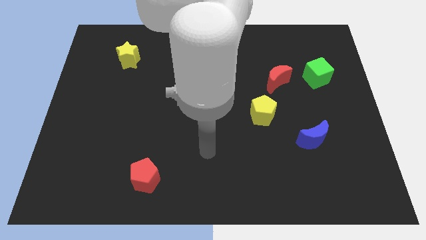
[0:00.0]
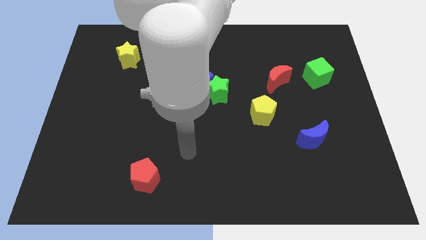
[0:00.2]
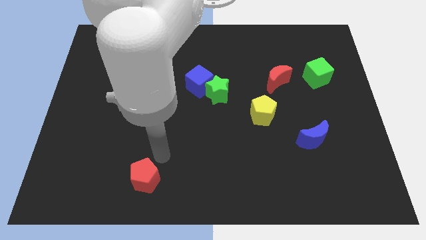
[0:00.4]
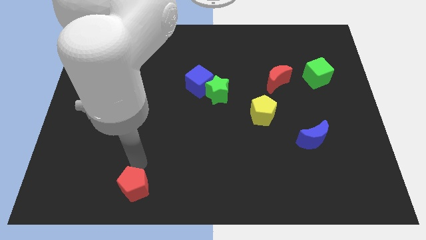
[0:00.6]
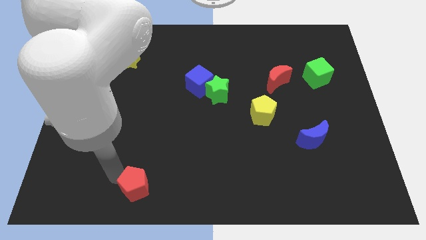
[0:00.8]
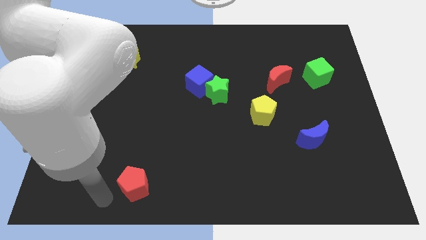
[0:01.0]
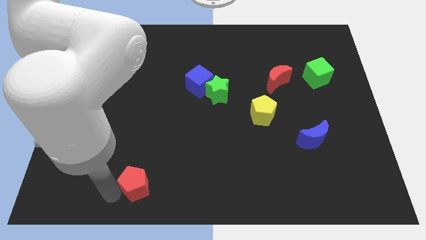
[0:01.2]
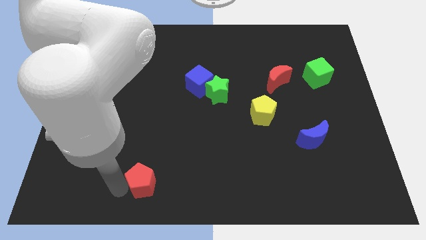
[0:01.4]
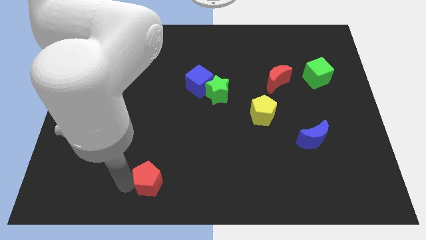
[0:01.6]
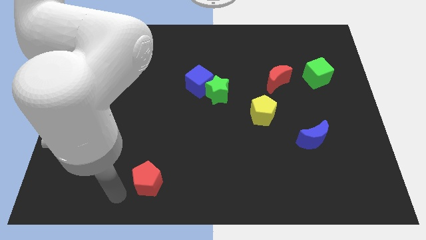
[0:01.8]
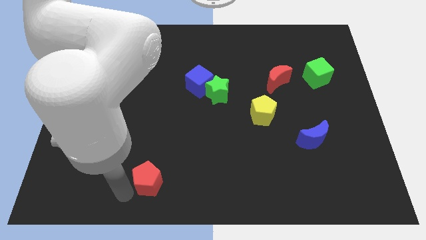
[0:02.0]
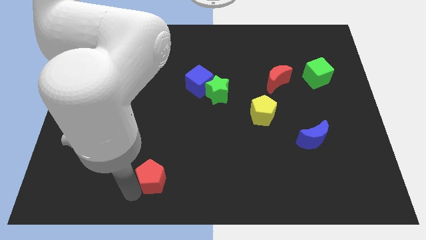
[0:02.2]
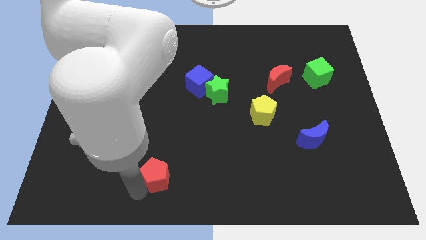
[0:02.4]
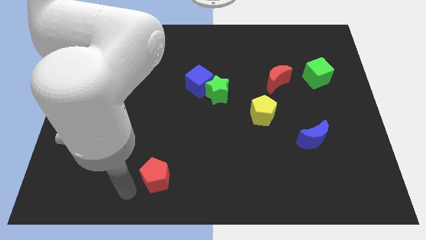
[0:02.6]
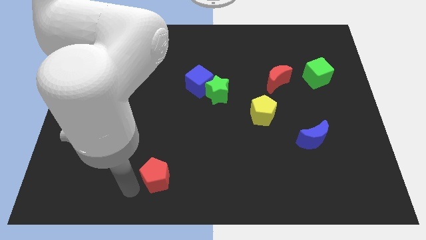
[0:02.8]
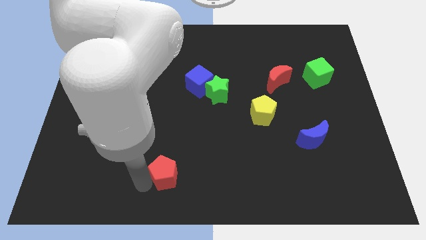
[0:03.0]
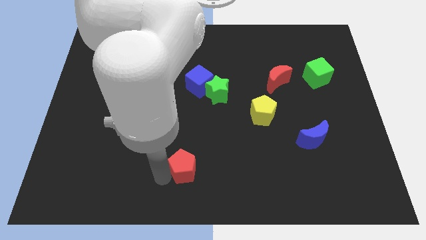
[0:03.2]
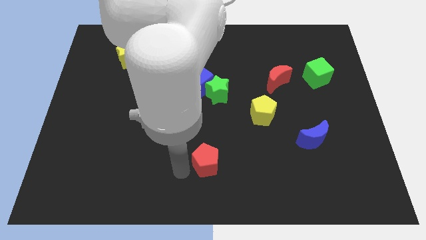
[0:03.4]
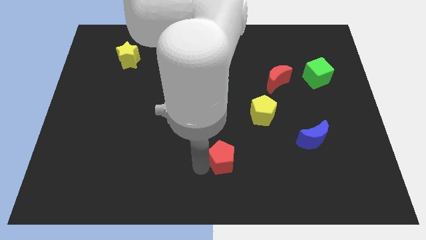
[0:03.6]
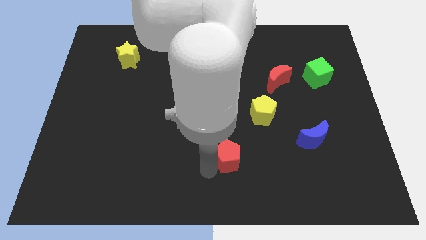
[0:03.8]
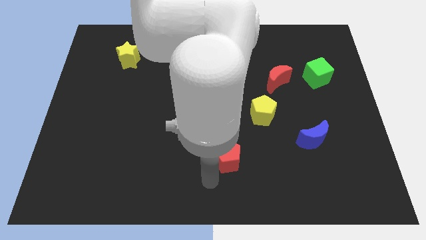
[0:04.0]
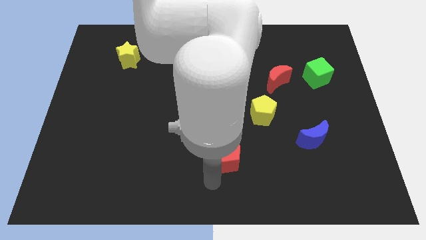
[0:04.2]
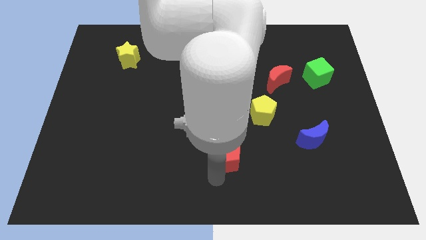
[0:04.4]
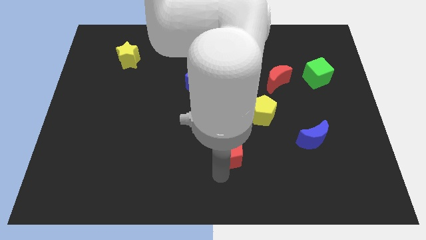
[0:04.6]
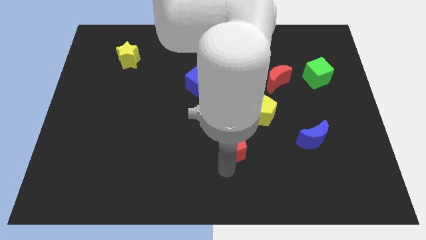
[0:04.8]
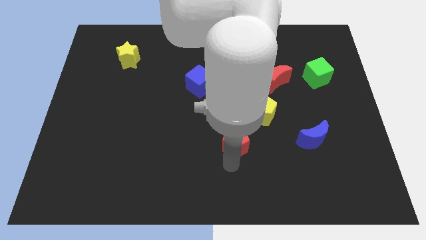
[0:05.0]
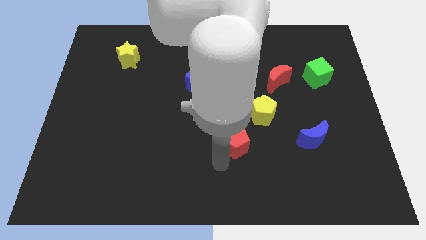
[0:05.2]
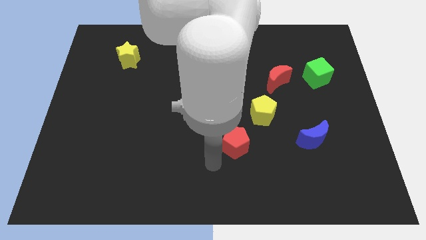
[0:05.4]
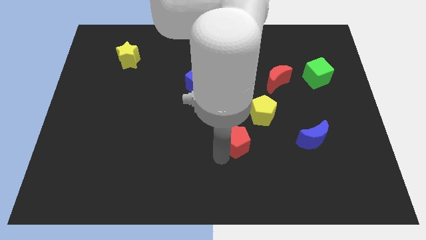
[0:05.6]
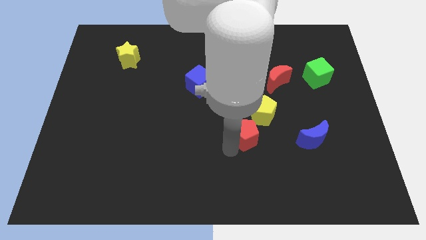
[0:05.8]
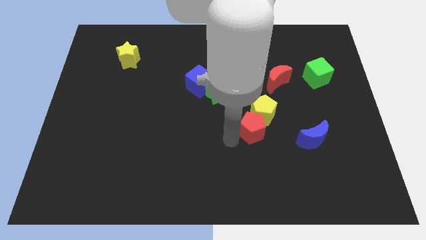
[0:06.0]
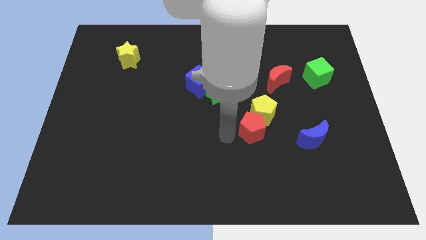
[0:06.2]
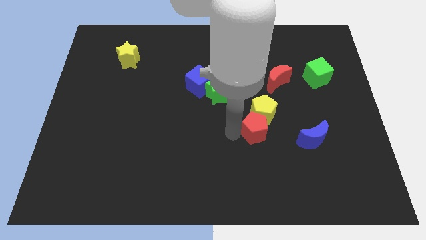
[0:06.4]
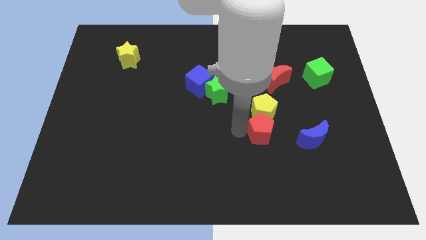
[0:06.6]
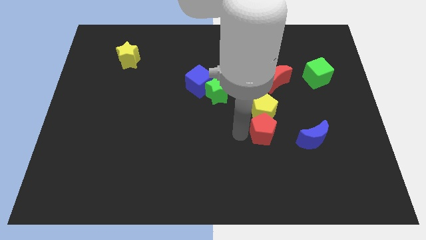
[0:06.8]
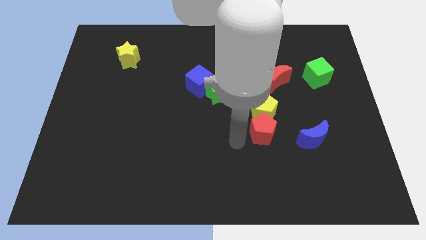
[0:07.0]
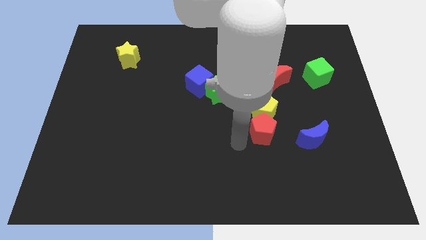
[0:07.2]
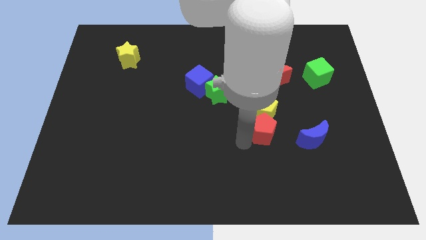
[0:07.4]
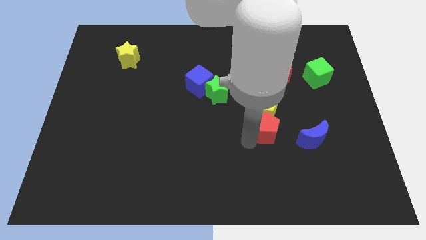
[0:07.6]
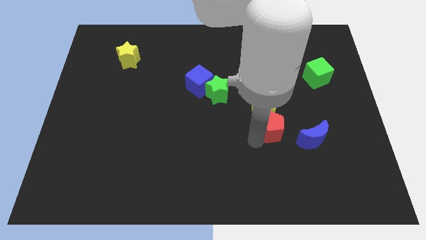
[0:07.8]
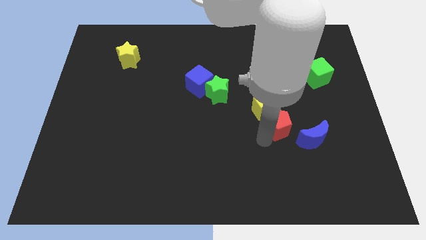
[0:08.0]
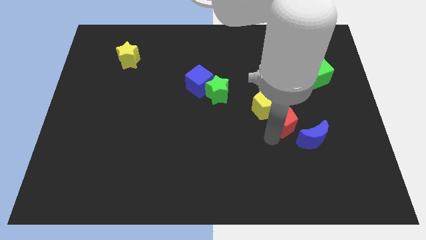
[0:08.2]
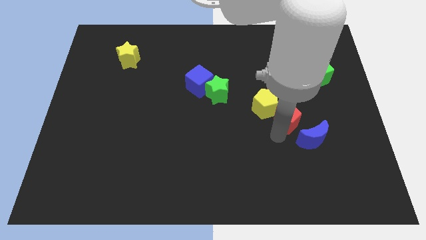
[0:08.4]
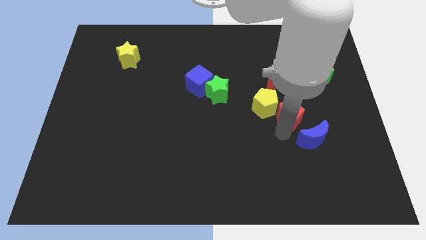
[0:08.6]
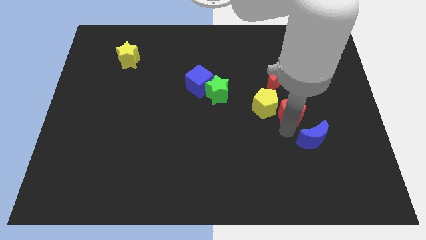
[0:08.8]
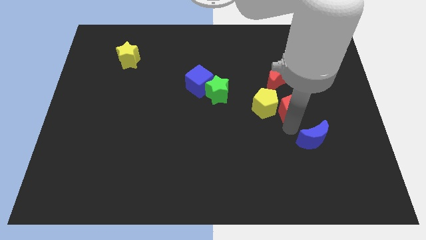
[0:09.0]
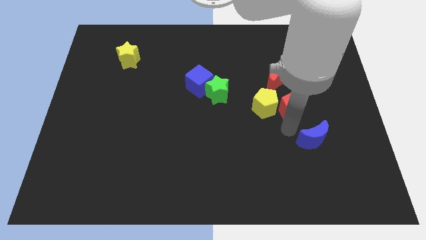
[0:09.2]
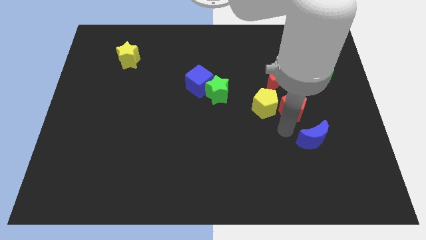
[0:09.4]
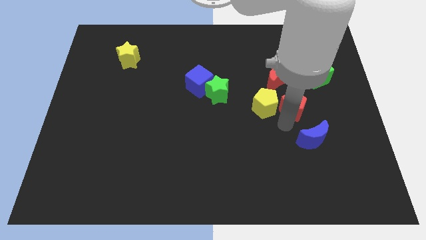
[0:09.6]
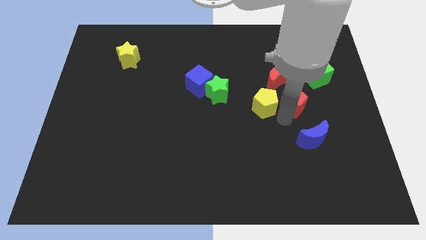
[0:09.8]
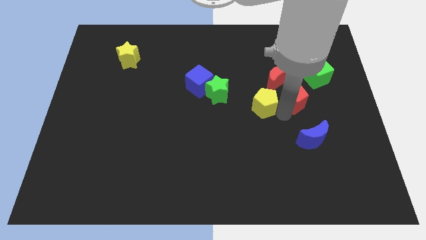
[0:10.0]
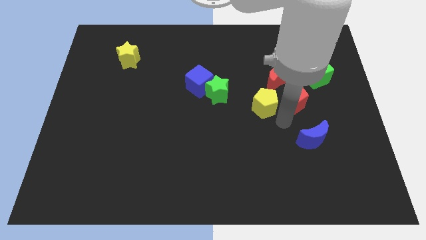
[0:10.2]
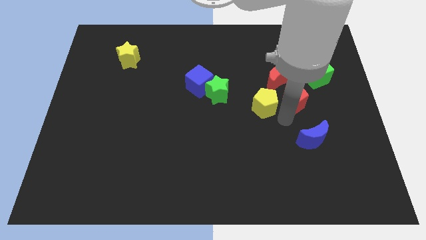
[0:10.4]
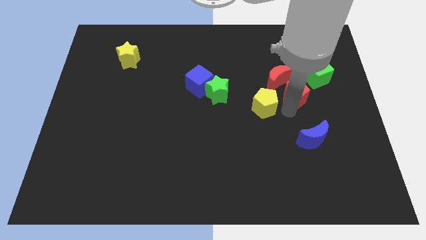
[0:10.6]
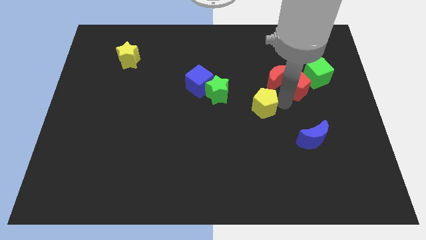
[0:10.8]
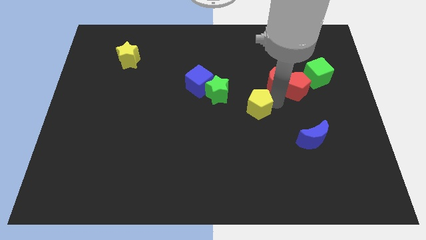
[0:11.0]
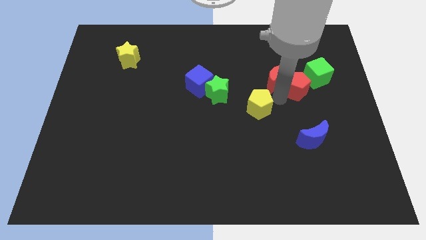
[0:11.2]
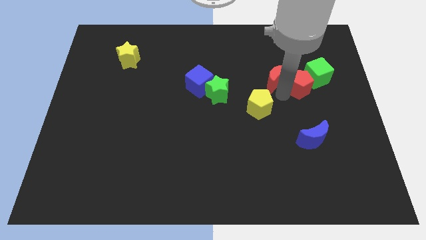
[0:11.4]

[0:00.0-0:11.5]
push the red pentagon next to the green cube
